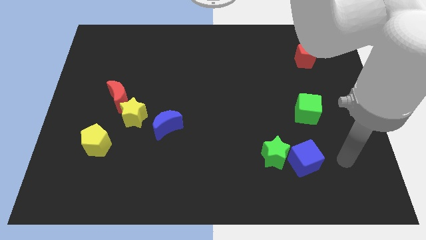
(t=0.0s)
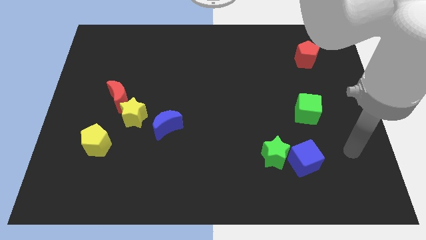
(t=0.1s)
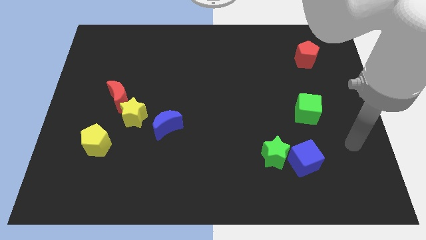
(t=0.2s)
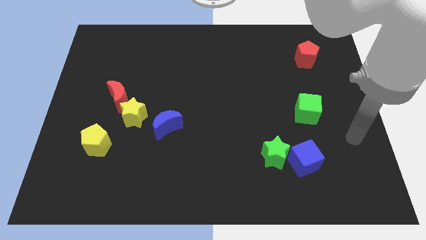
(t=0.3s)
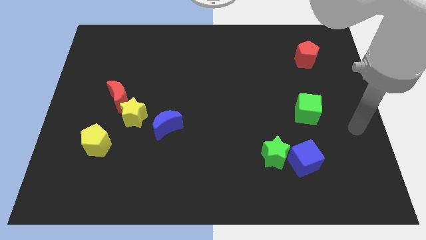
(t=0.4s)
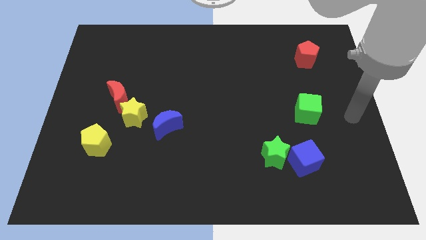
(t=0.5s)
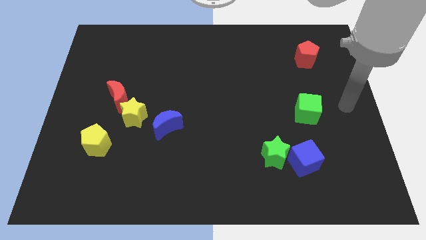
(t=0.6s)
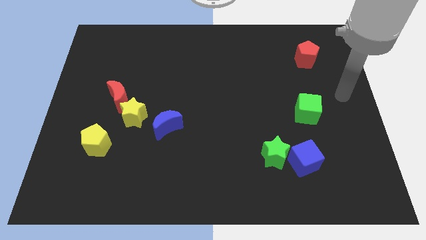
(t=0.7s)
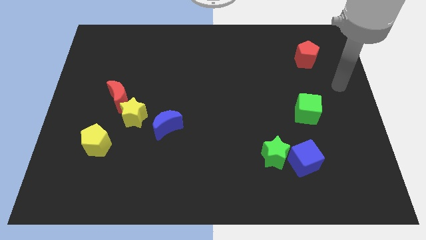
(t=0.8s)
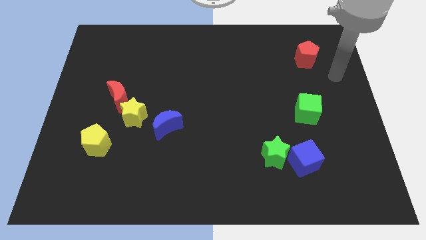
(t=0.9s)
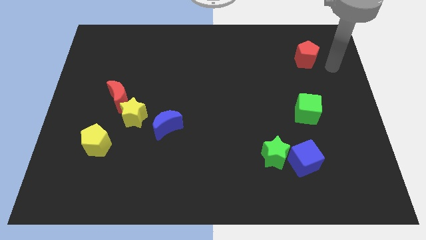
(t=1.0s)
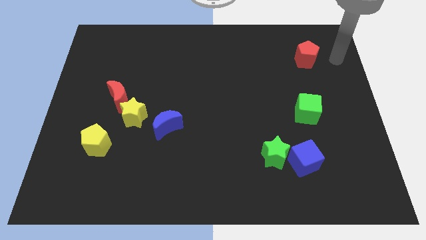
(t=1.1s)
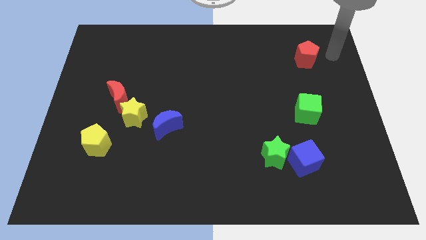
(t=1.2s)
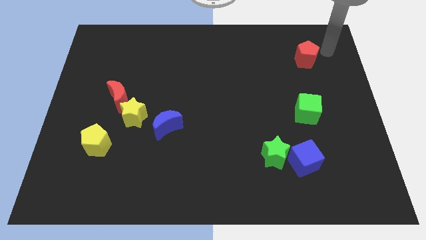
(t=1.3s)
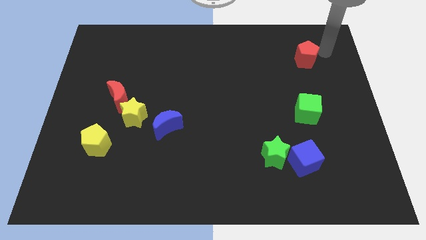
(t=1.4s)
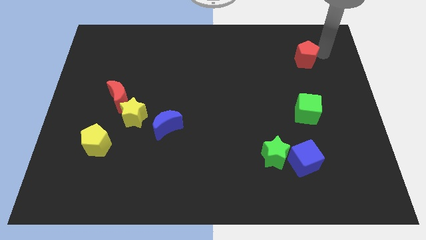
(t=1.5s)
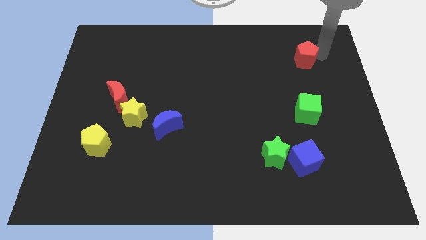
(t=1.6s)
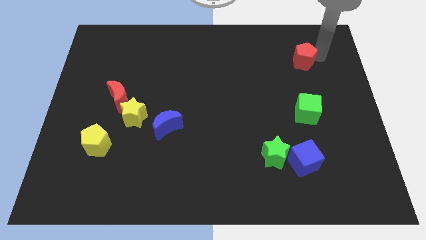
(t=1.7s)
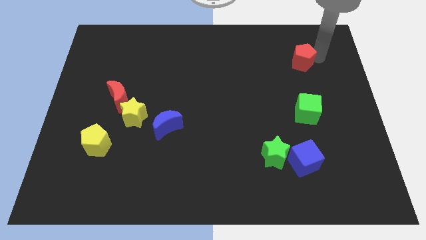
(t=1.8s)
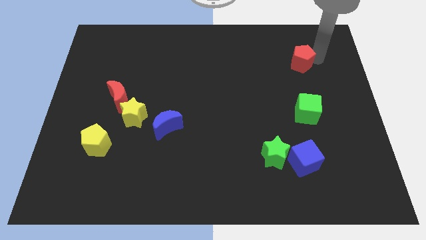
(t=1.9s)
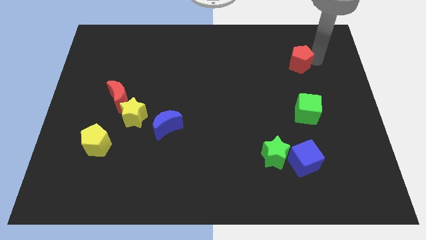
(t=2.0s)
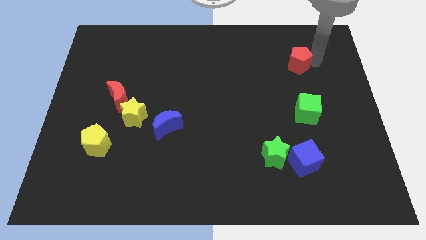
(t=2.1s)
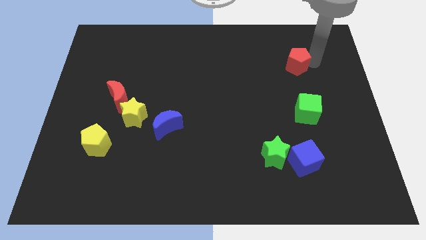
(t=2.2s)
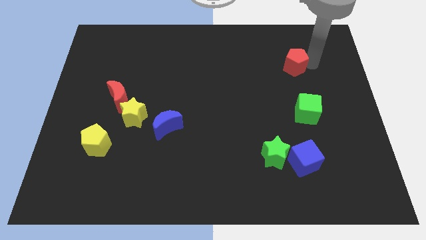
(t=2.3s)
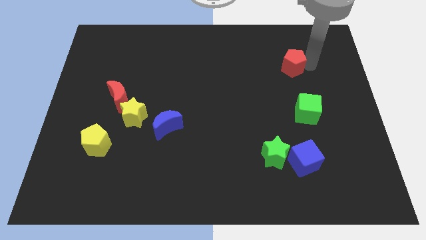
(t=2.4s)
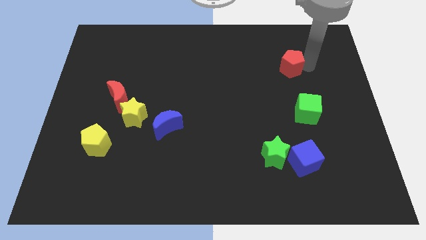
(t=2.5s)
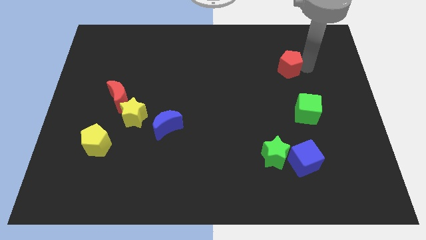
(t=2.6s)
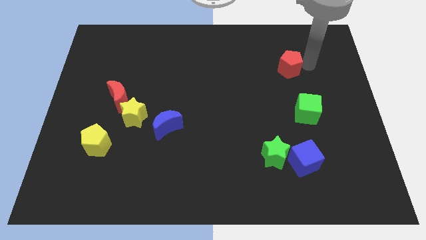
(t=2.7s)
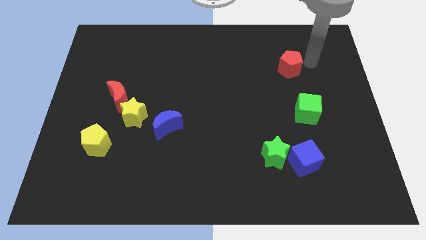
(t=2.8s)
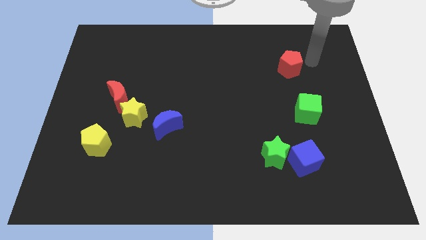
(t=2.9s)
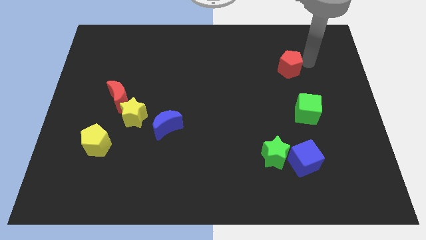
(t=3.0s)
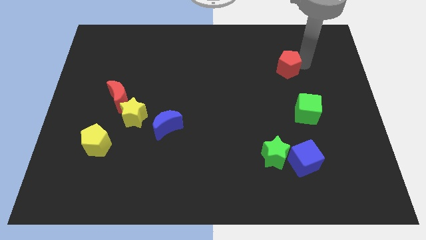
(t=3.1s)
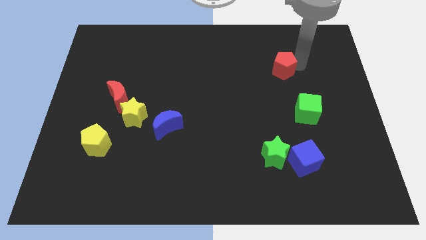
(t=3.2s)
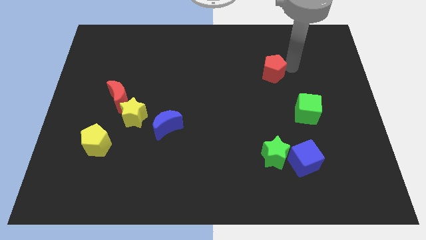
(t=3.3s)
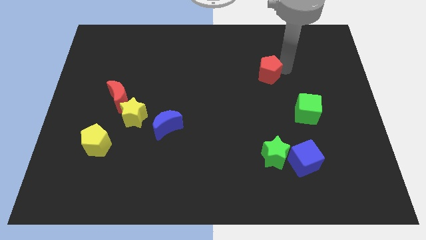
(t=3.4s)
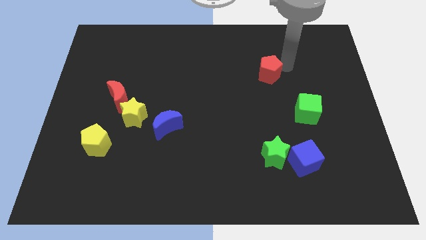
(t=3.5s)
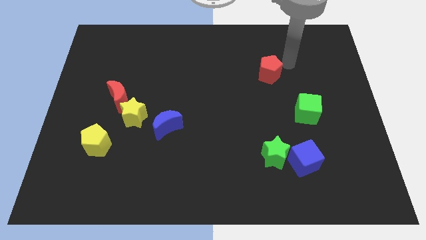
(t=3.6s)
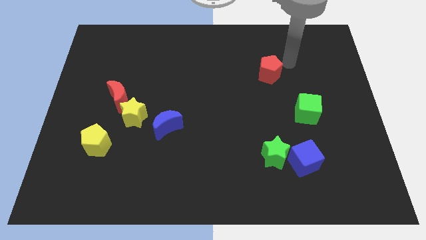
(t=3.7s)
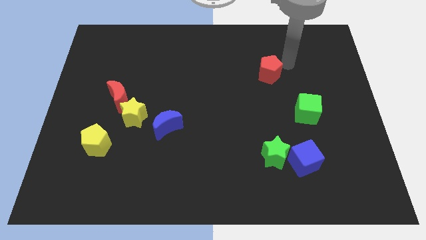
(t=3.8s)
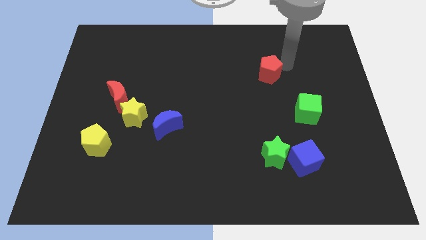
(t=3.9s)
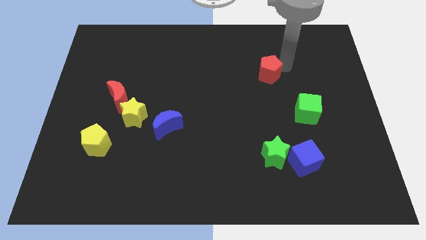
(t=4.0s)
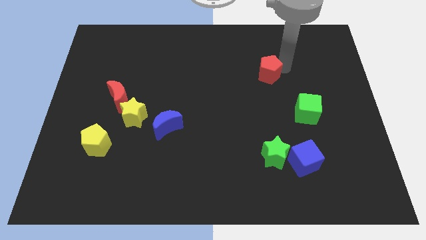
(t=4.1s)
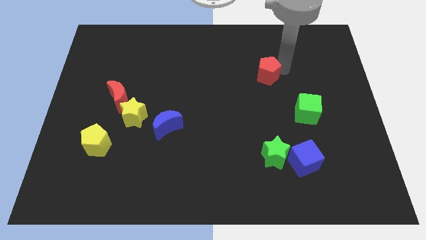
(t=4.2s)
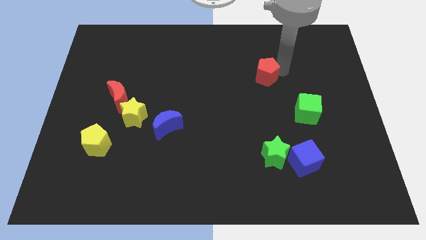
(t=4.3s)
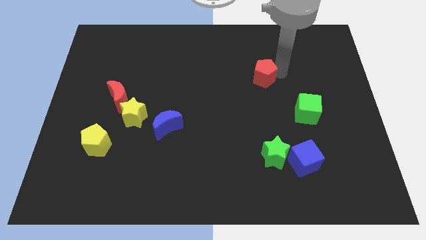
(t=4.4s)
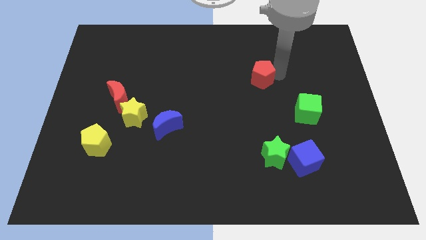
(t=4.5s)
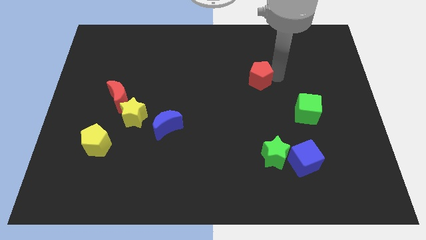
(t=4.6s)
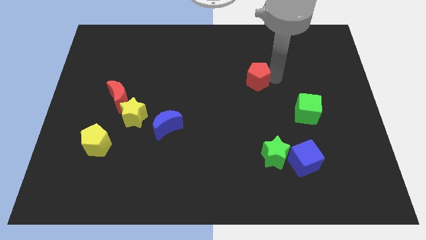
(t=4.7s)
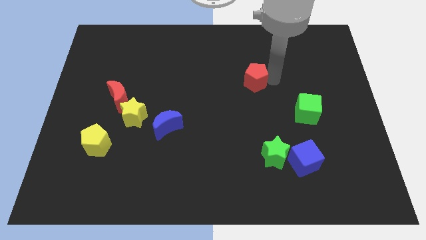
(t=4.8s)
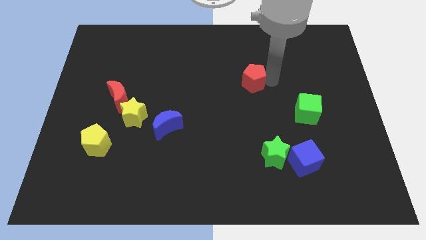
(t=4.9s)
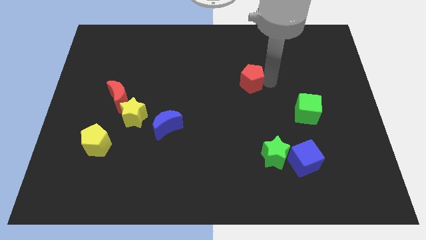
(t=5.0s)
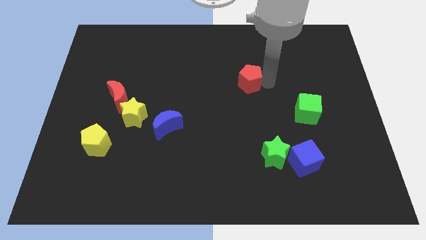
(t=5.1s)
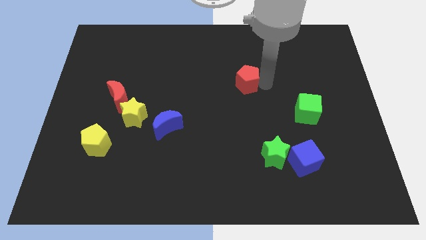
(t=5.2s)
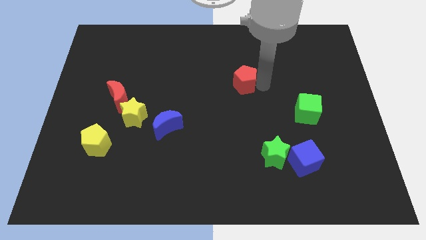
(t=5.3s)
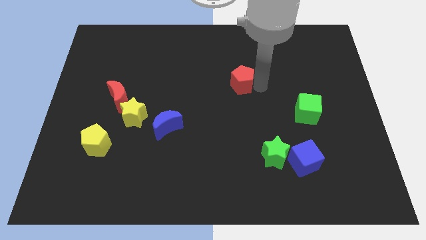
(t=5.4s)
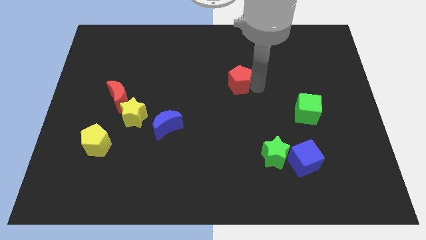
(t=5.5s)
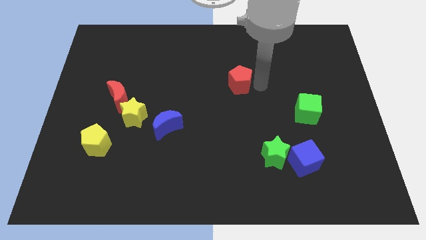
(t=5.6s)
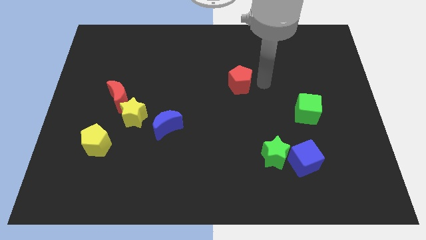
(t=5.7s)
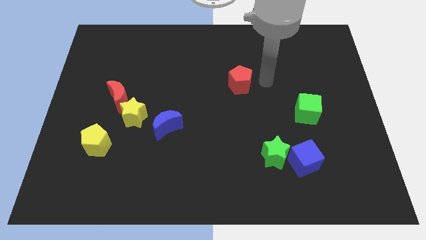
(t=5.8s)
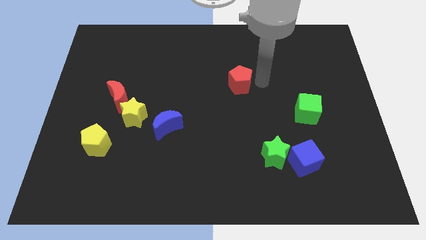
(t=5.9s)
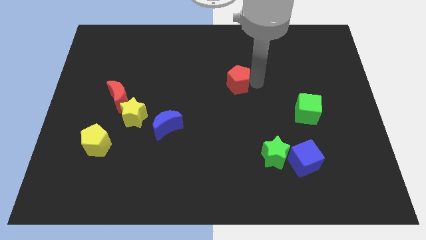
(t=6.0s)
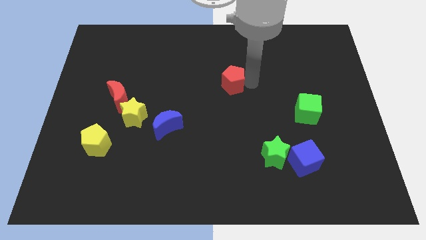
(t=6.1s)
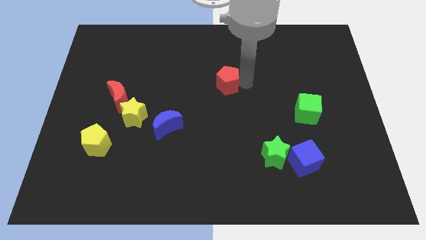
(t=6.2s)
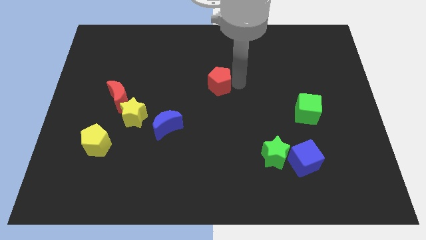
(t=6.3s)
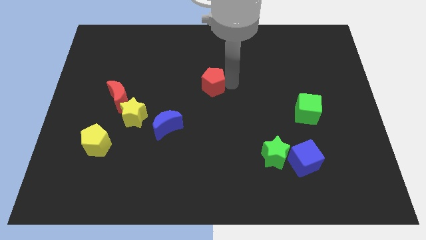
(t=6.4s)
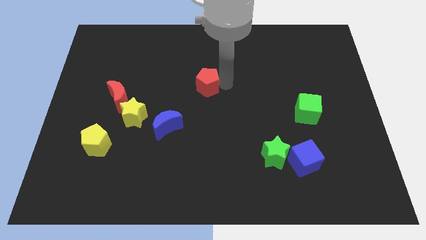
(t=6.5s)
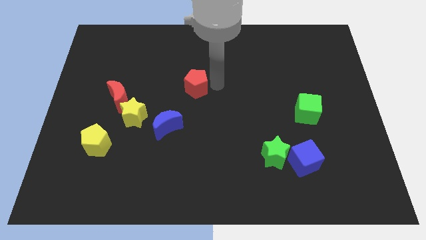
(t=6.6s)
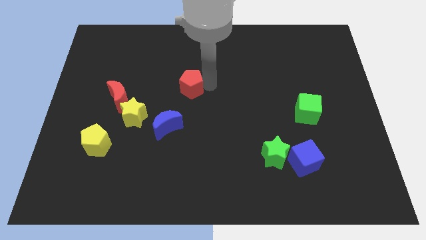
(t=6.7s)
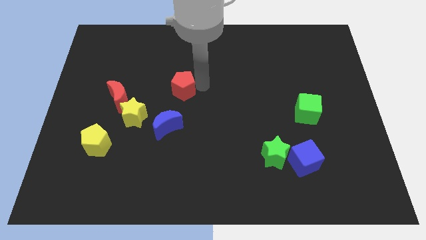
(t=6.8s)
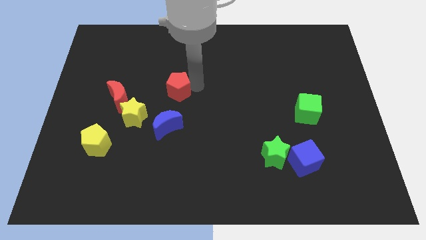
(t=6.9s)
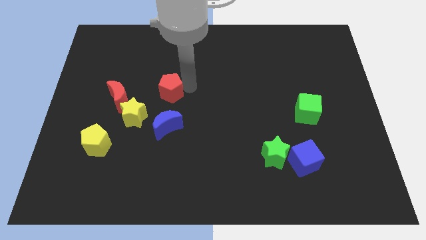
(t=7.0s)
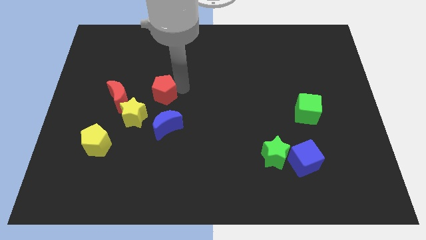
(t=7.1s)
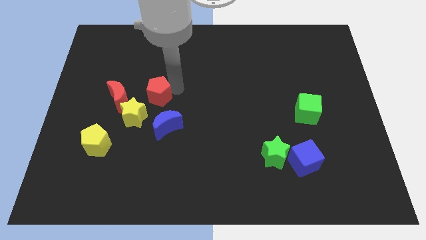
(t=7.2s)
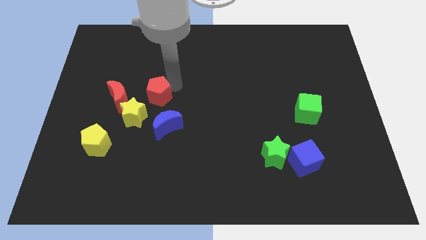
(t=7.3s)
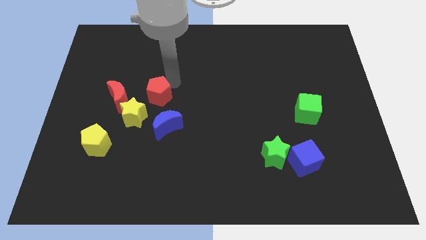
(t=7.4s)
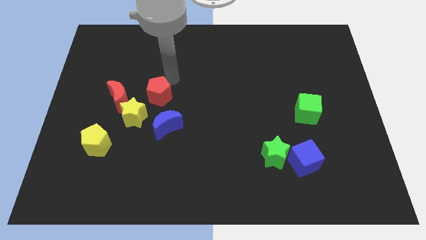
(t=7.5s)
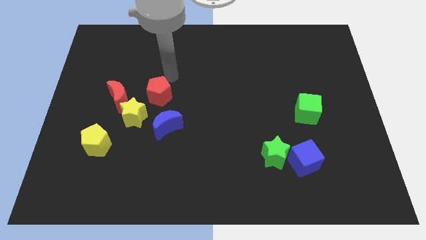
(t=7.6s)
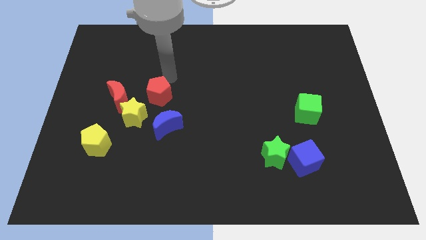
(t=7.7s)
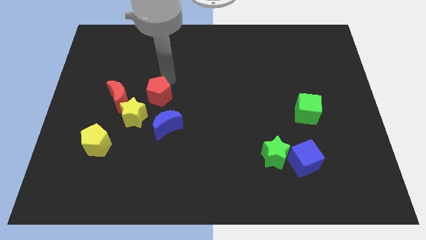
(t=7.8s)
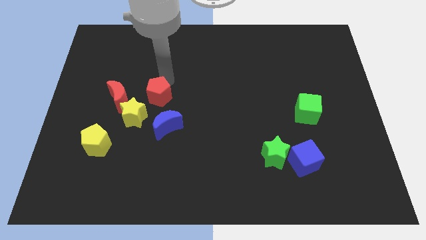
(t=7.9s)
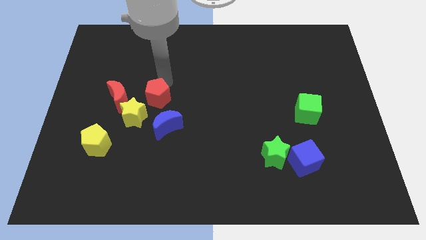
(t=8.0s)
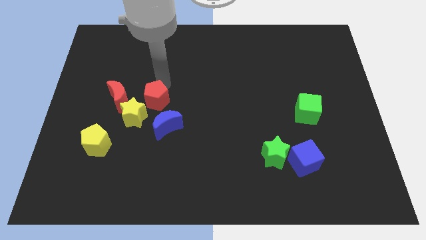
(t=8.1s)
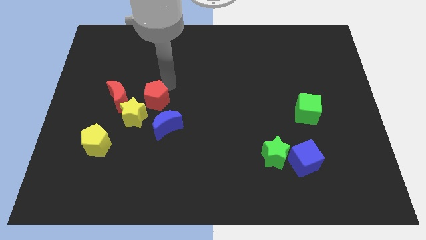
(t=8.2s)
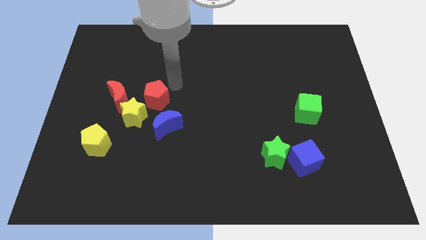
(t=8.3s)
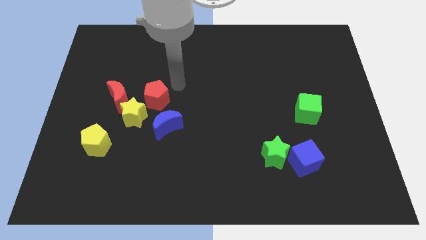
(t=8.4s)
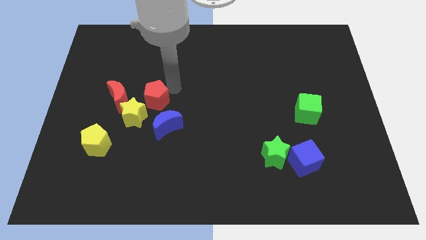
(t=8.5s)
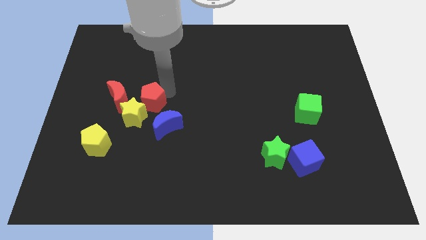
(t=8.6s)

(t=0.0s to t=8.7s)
slide the red pentagon close to the yellow star
